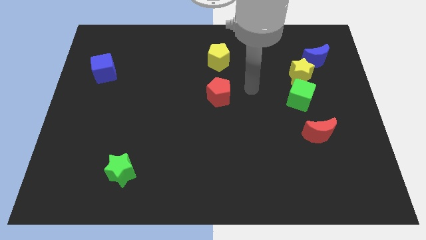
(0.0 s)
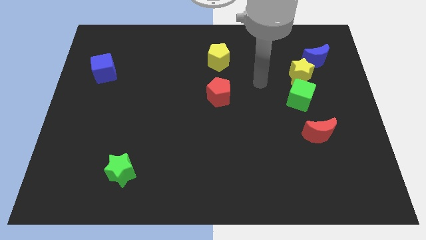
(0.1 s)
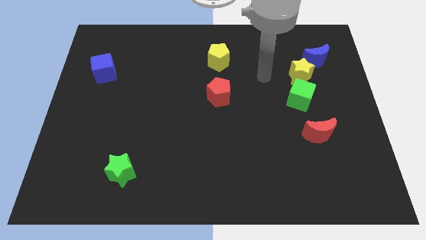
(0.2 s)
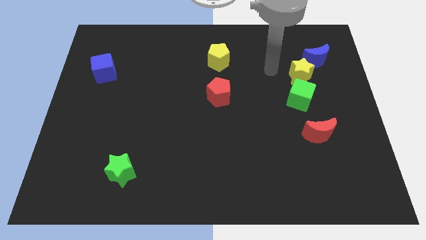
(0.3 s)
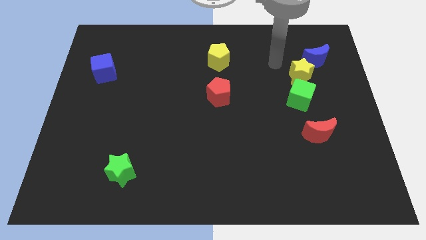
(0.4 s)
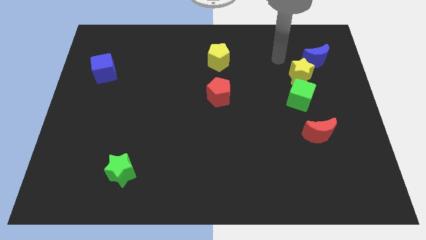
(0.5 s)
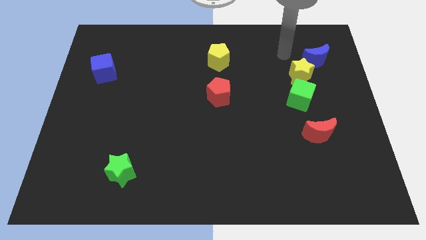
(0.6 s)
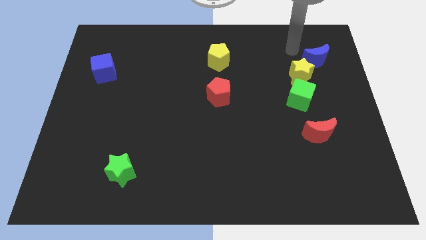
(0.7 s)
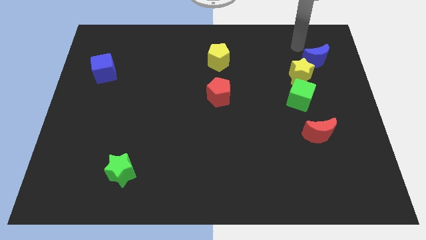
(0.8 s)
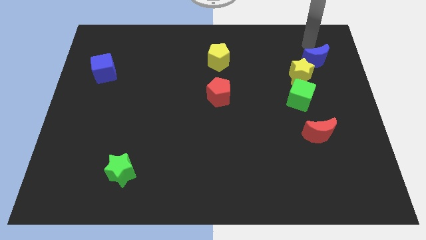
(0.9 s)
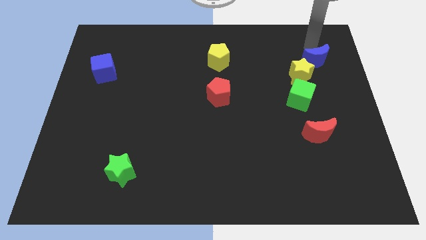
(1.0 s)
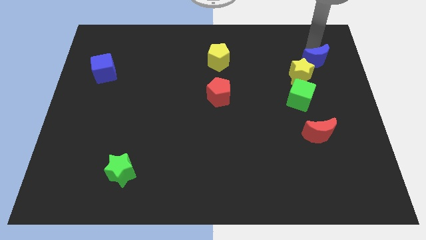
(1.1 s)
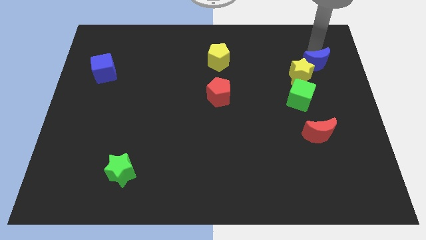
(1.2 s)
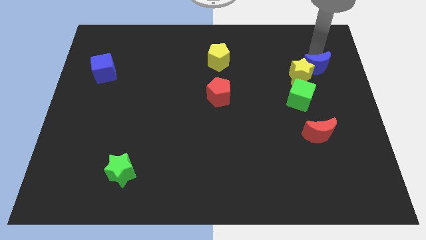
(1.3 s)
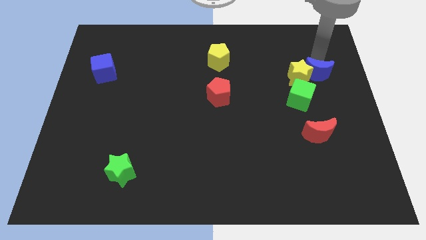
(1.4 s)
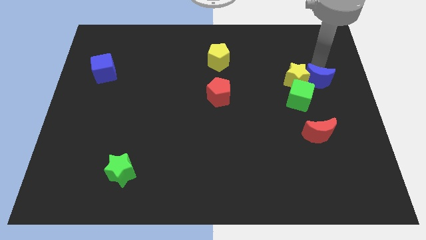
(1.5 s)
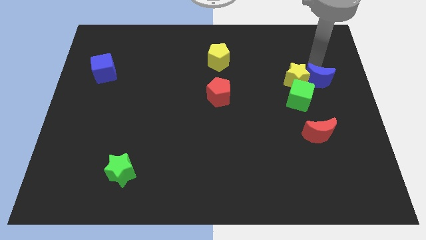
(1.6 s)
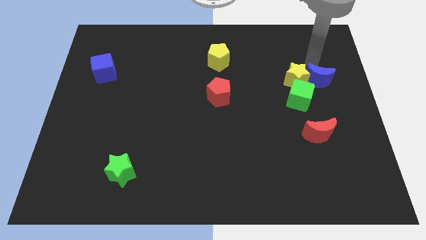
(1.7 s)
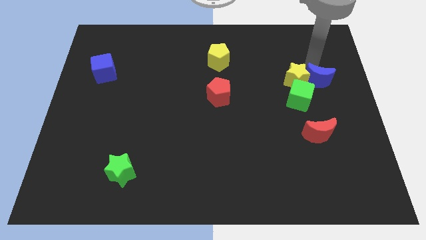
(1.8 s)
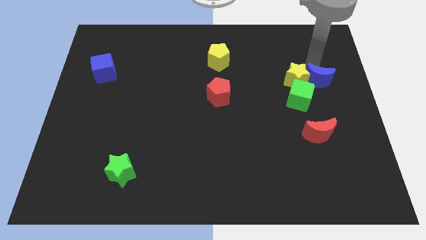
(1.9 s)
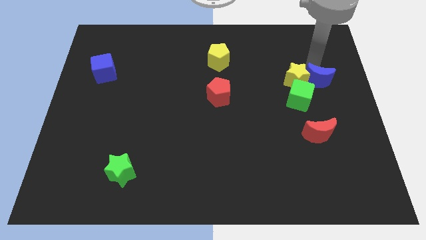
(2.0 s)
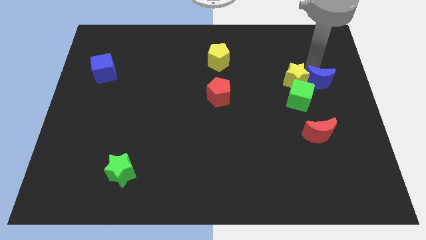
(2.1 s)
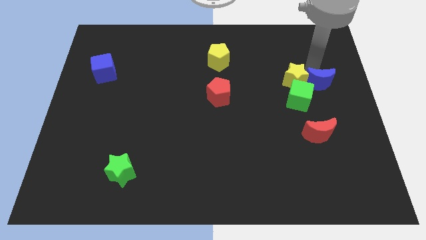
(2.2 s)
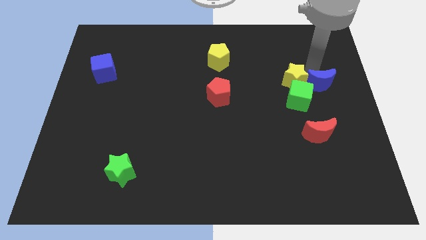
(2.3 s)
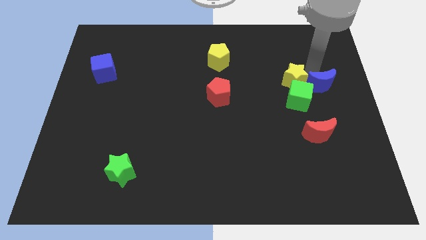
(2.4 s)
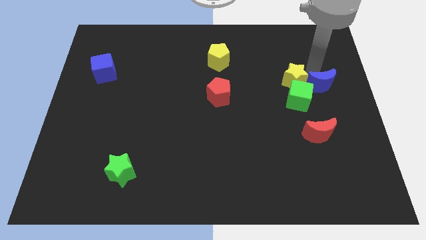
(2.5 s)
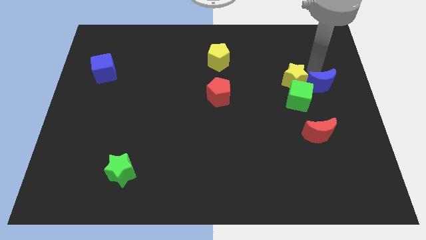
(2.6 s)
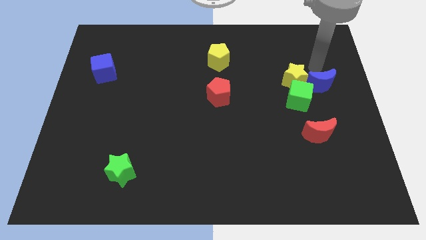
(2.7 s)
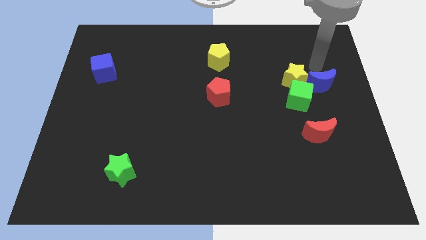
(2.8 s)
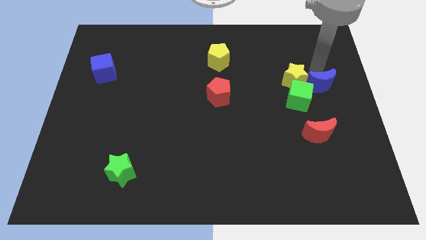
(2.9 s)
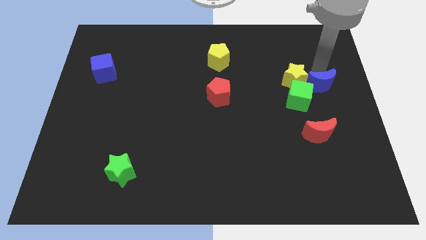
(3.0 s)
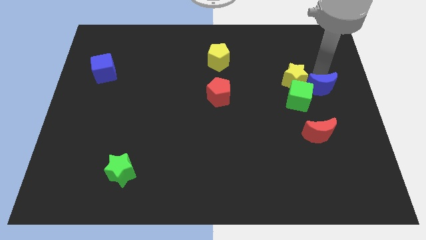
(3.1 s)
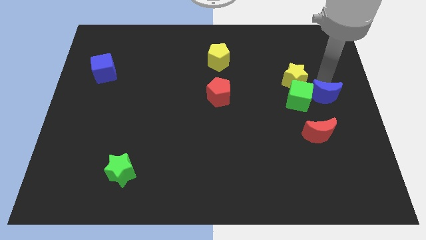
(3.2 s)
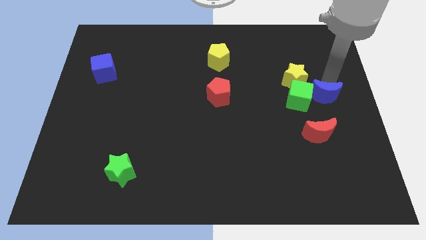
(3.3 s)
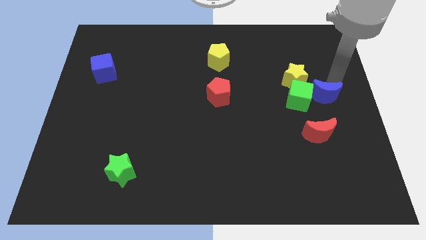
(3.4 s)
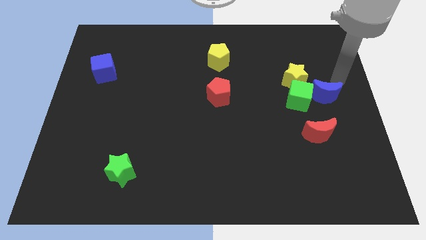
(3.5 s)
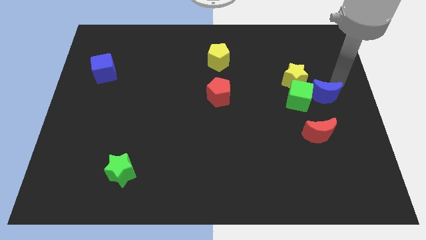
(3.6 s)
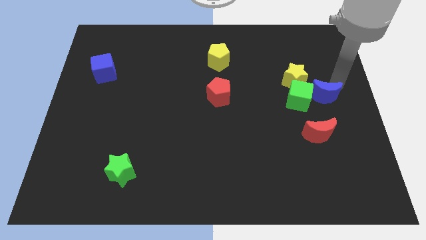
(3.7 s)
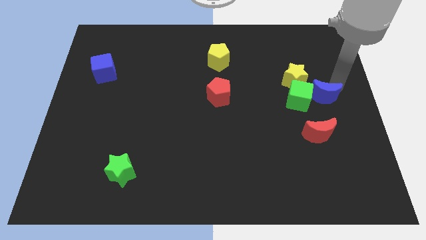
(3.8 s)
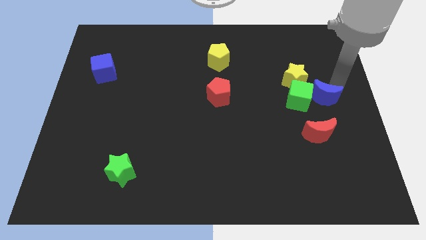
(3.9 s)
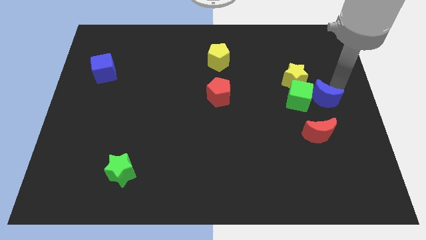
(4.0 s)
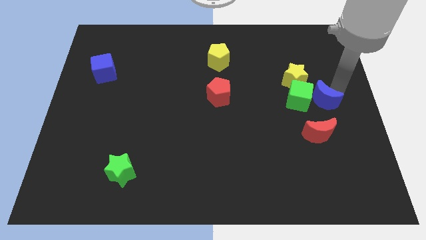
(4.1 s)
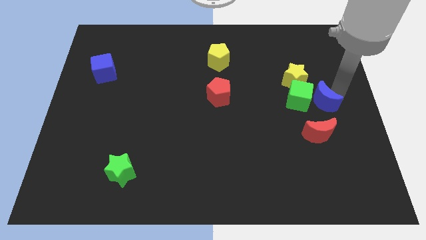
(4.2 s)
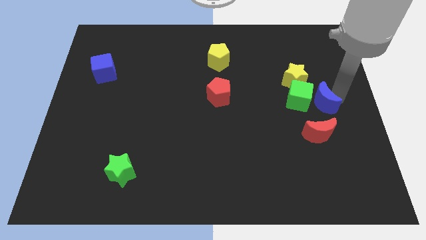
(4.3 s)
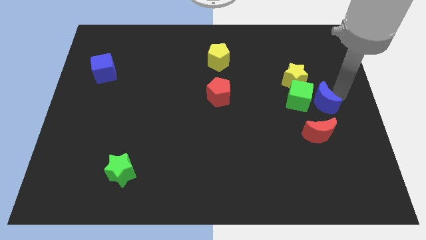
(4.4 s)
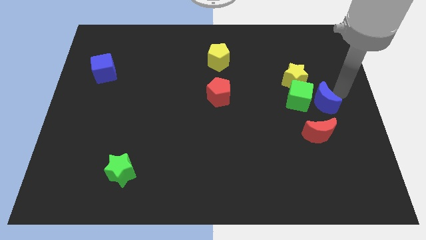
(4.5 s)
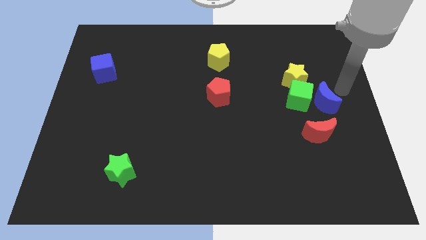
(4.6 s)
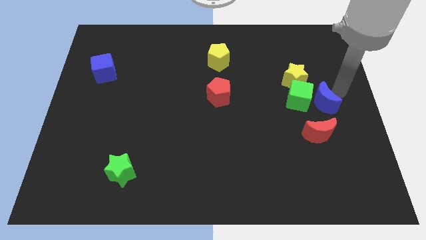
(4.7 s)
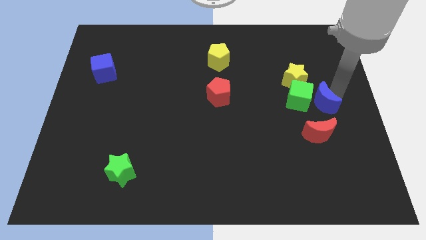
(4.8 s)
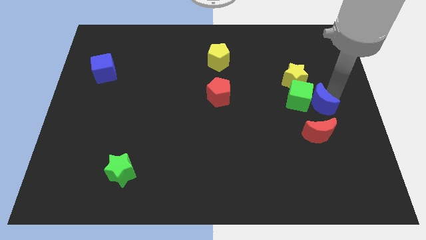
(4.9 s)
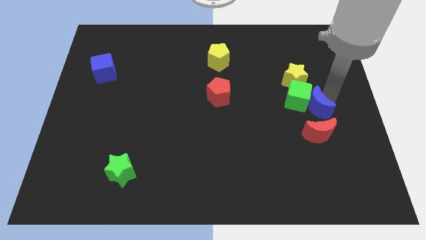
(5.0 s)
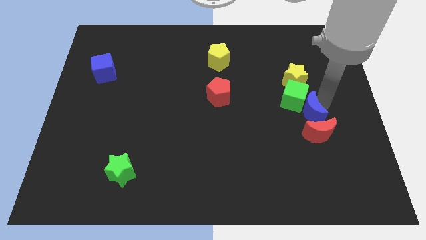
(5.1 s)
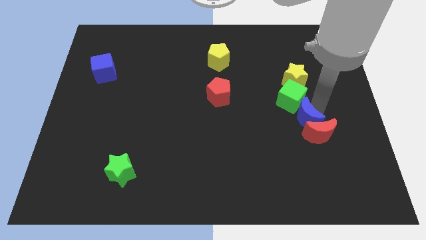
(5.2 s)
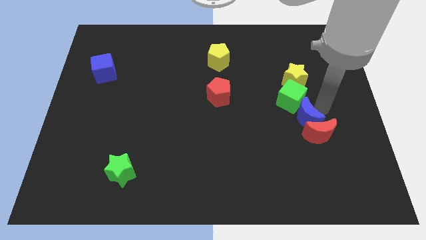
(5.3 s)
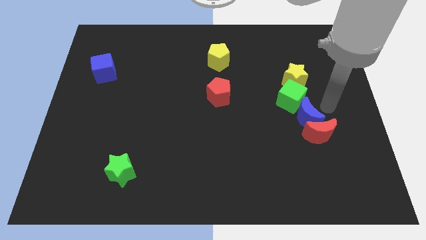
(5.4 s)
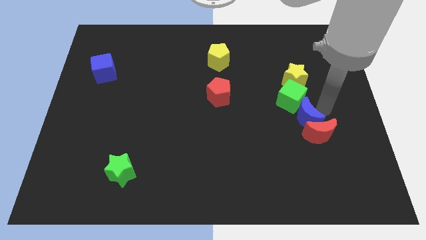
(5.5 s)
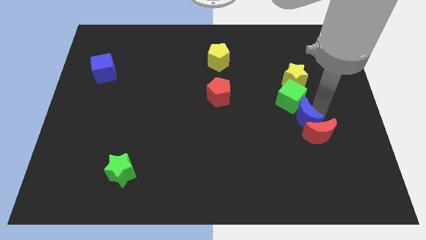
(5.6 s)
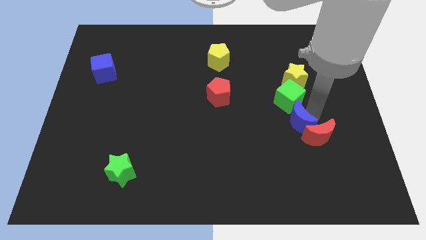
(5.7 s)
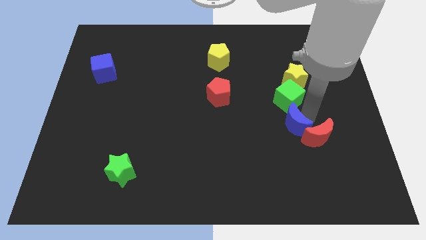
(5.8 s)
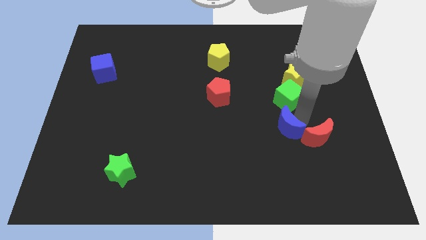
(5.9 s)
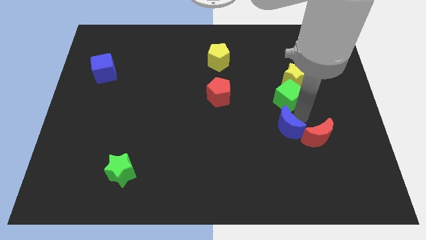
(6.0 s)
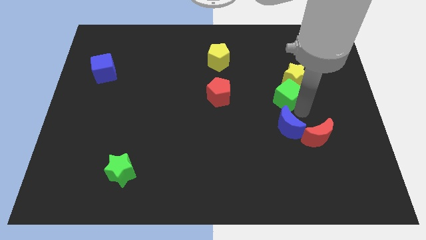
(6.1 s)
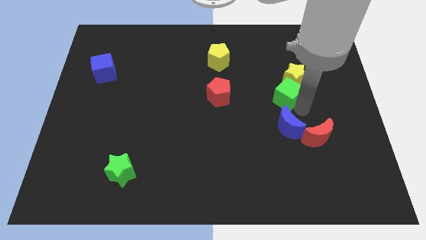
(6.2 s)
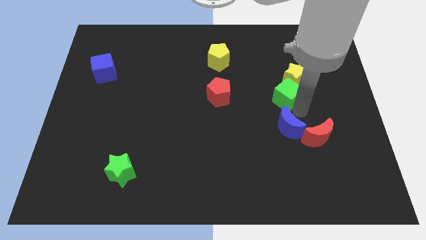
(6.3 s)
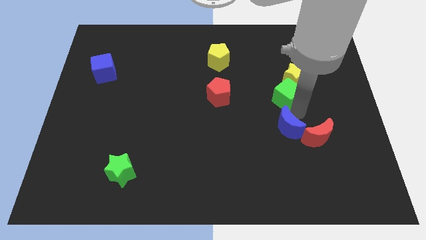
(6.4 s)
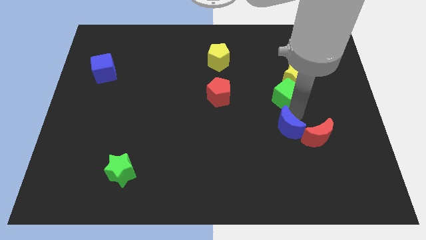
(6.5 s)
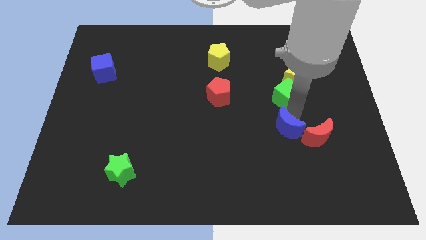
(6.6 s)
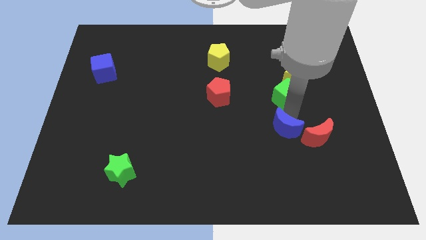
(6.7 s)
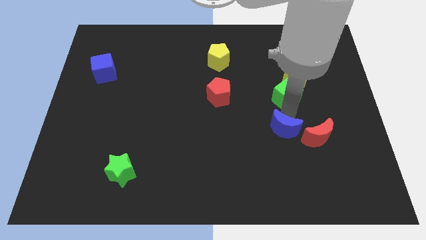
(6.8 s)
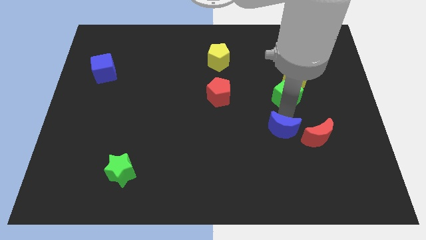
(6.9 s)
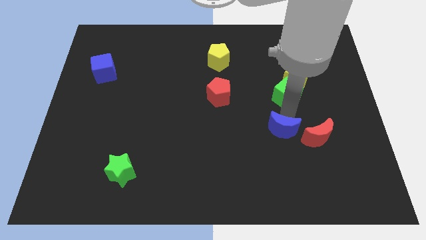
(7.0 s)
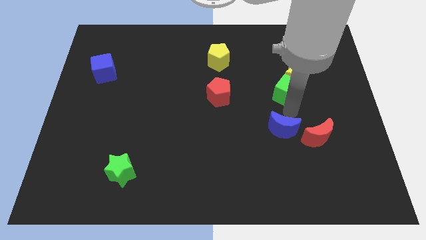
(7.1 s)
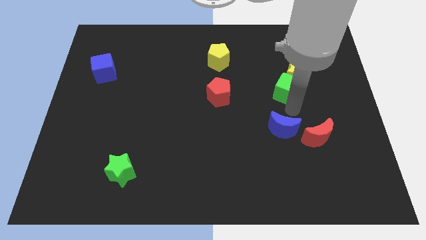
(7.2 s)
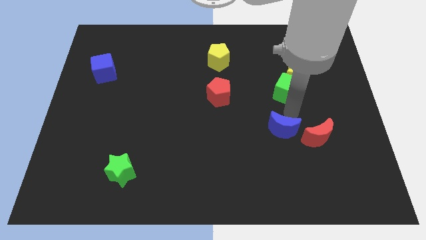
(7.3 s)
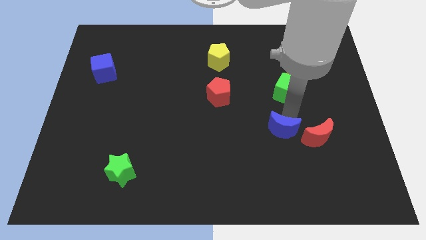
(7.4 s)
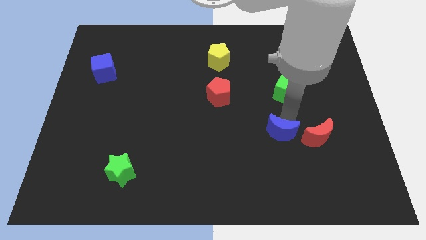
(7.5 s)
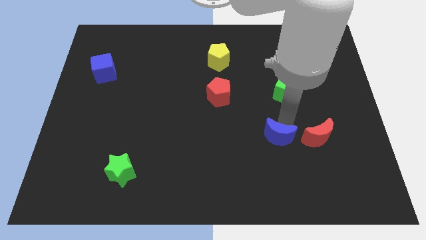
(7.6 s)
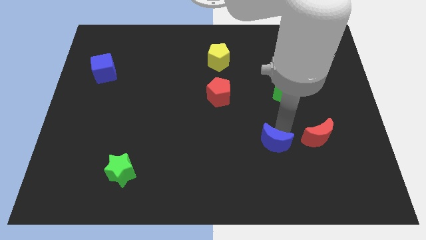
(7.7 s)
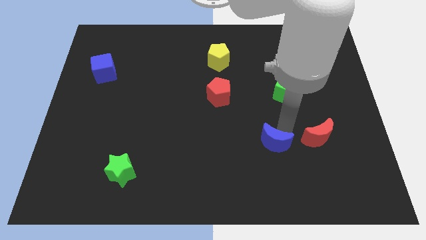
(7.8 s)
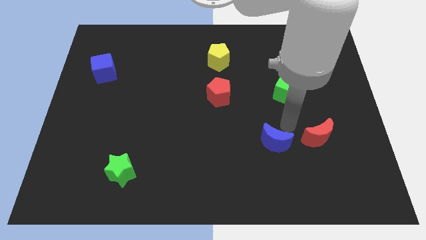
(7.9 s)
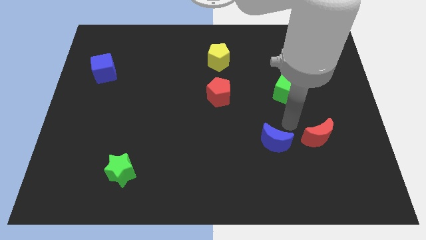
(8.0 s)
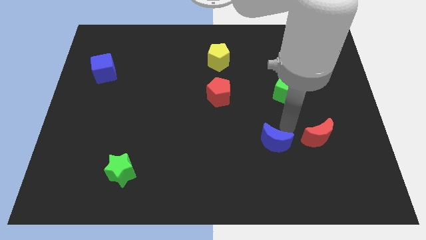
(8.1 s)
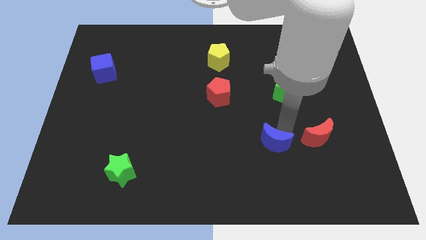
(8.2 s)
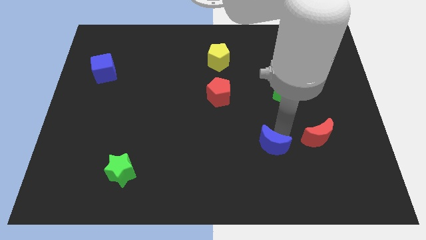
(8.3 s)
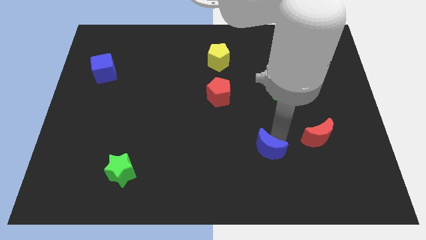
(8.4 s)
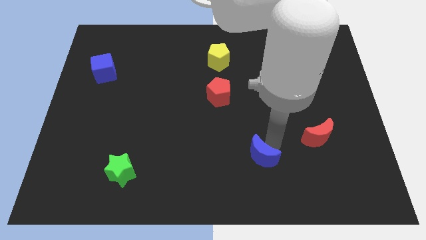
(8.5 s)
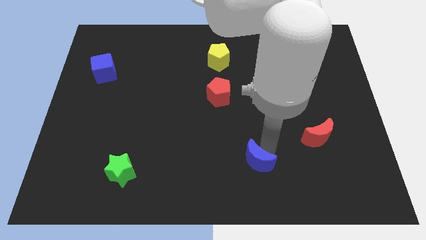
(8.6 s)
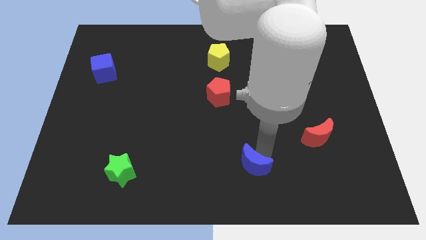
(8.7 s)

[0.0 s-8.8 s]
move the blue moon to the bottom
